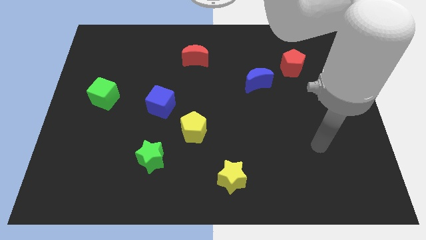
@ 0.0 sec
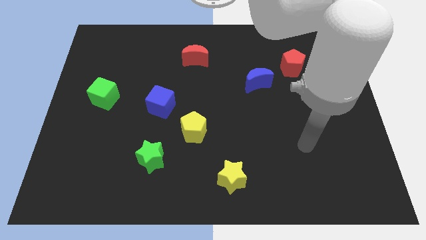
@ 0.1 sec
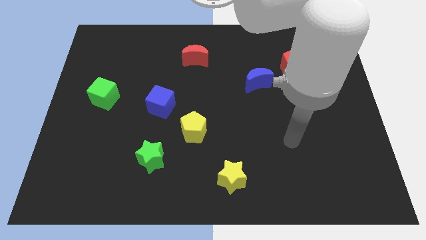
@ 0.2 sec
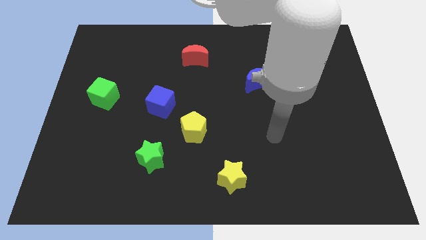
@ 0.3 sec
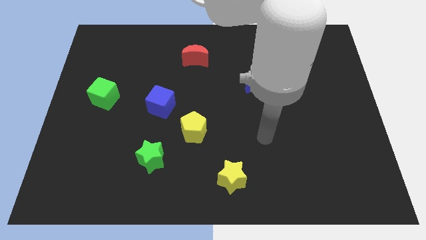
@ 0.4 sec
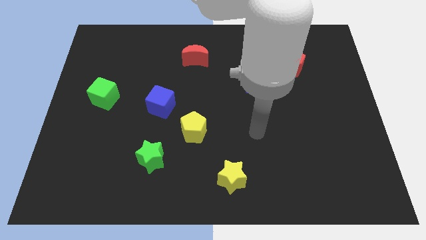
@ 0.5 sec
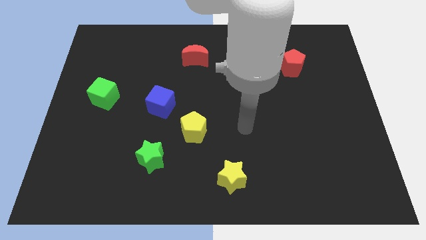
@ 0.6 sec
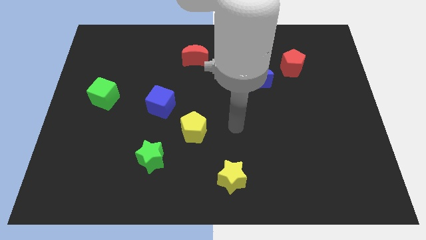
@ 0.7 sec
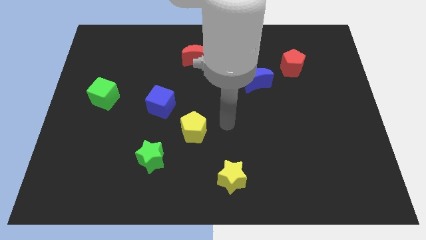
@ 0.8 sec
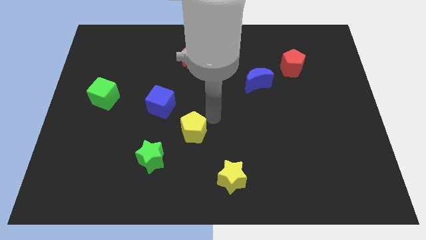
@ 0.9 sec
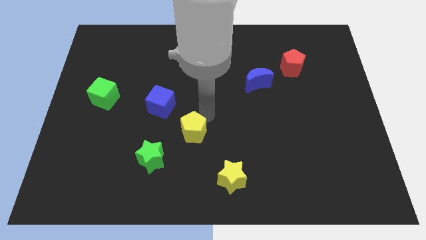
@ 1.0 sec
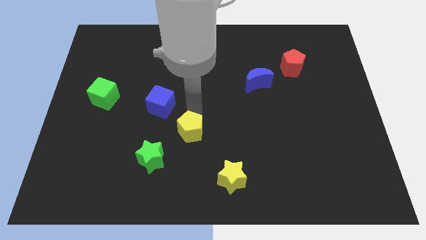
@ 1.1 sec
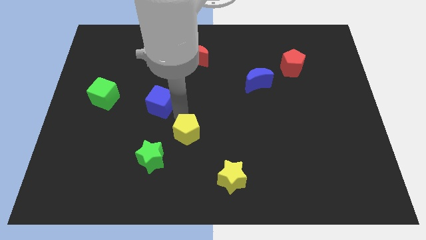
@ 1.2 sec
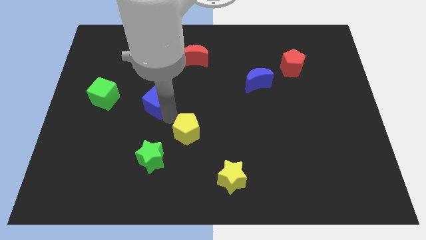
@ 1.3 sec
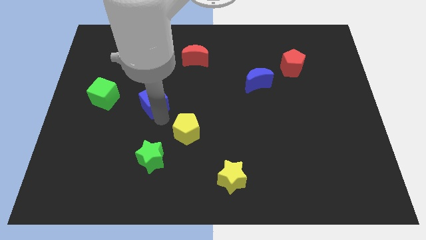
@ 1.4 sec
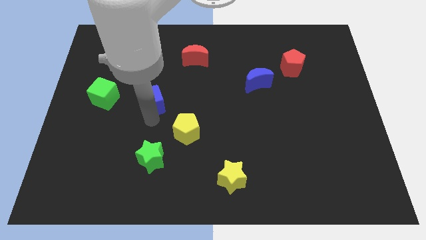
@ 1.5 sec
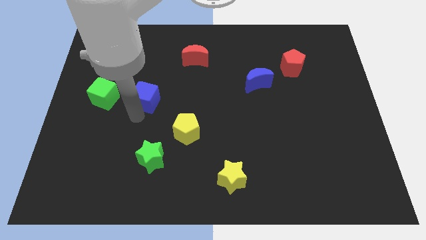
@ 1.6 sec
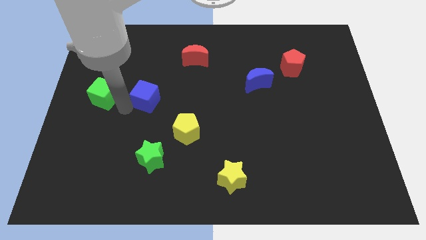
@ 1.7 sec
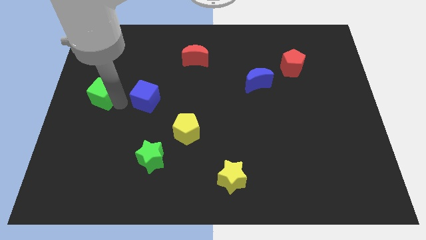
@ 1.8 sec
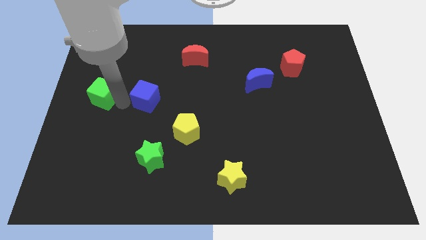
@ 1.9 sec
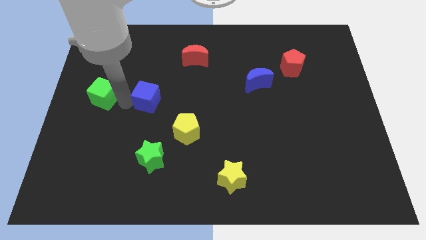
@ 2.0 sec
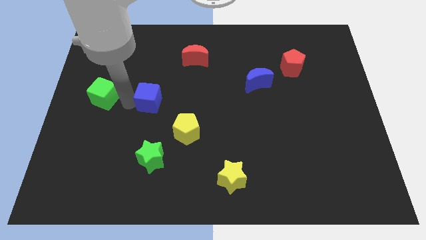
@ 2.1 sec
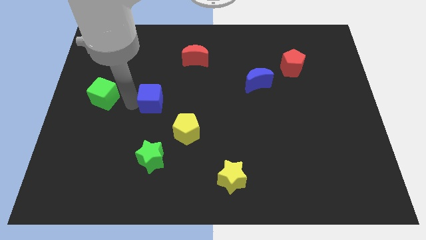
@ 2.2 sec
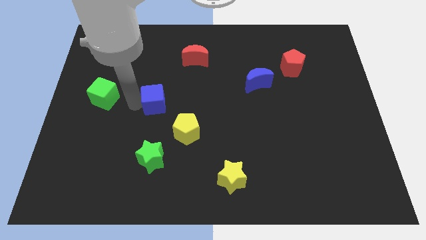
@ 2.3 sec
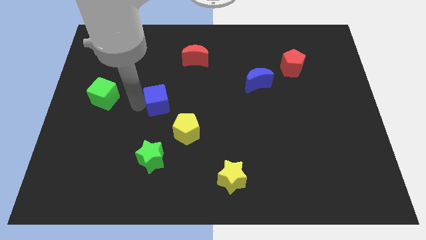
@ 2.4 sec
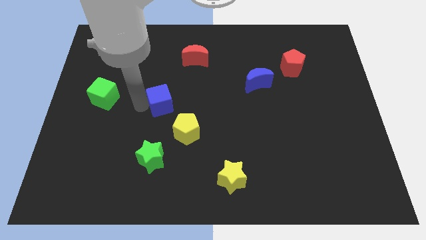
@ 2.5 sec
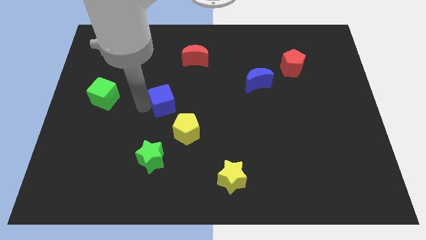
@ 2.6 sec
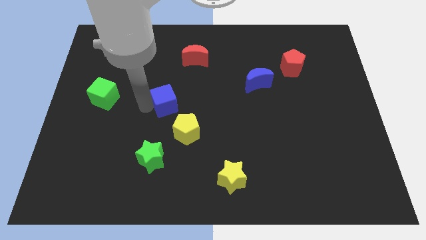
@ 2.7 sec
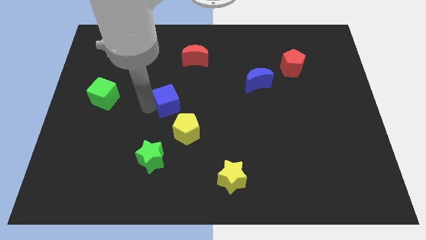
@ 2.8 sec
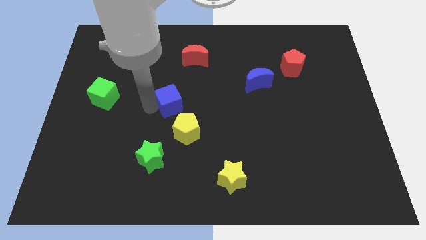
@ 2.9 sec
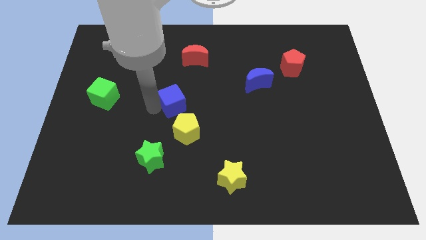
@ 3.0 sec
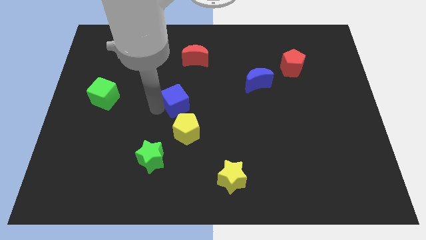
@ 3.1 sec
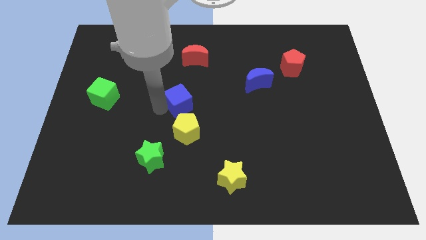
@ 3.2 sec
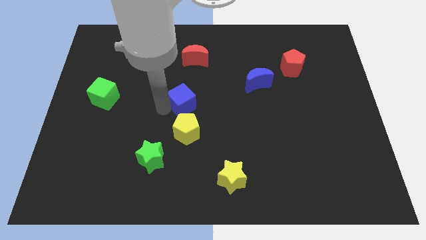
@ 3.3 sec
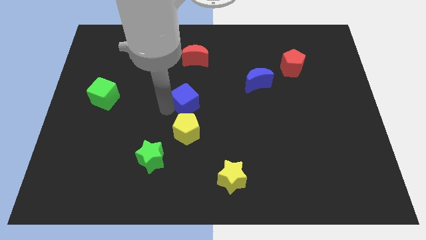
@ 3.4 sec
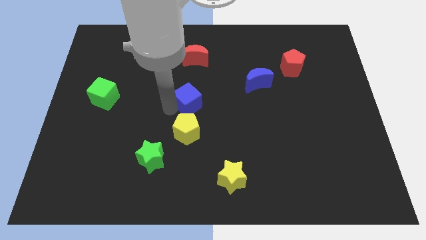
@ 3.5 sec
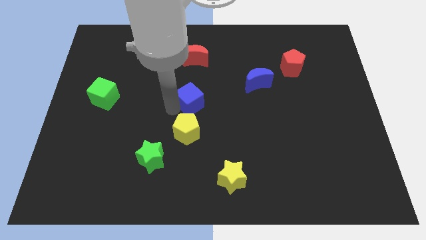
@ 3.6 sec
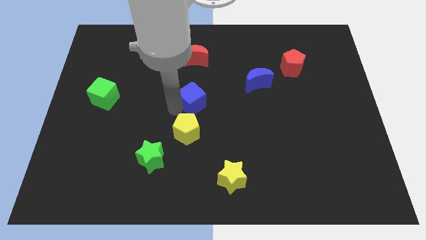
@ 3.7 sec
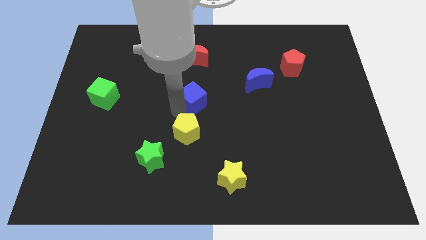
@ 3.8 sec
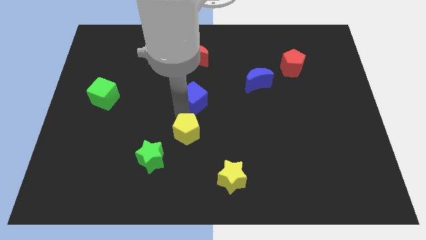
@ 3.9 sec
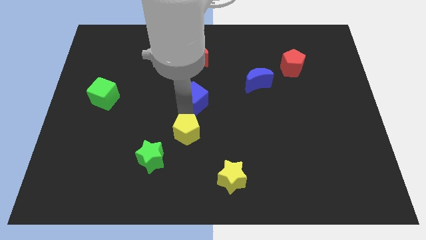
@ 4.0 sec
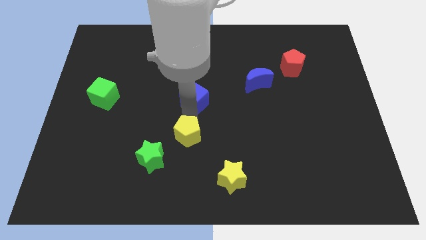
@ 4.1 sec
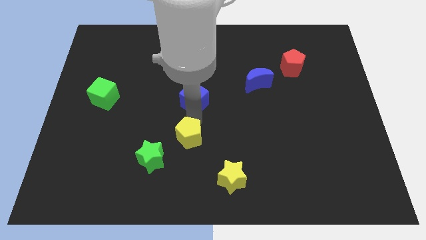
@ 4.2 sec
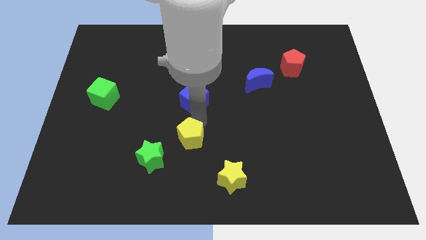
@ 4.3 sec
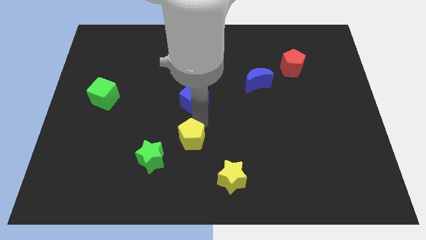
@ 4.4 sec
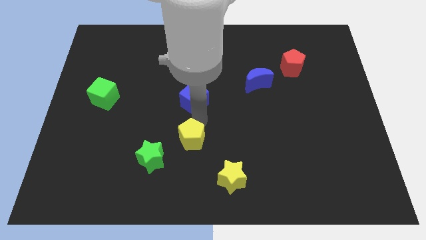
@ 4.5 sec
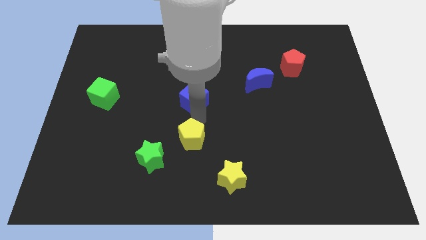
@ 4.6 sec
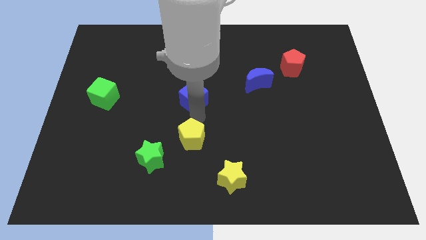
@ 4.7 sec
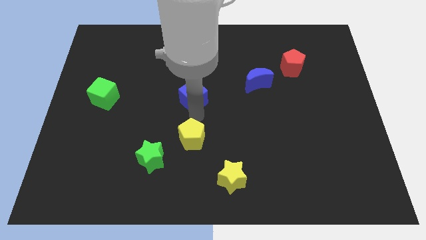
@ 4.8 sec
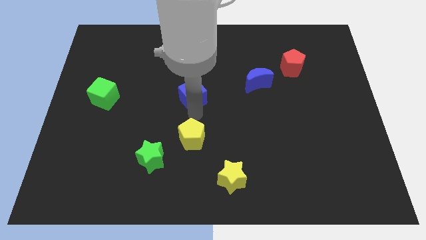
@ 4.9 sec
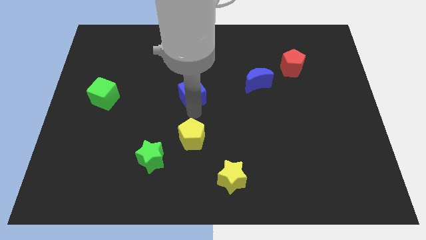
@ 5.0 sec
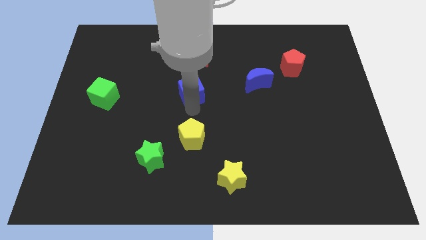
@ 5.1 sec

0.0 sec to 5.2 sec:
push the blue cube a bit upwards and right diagonally

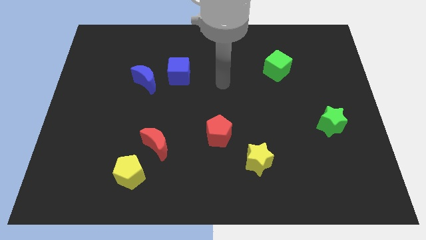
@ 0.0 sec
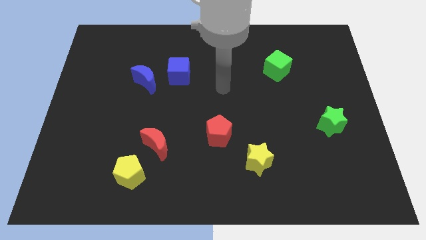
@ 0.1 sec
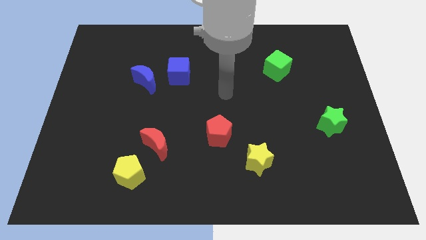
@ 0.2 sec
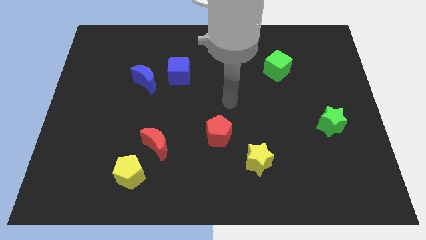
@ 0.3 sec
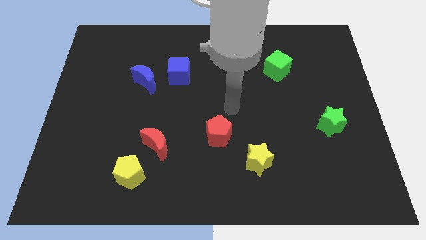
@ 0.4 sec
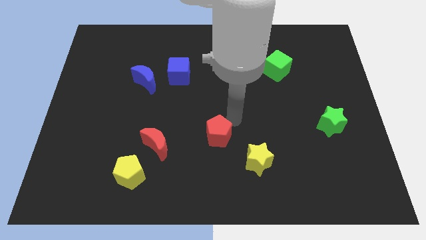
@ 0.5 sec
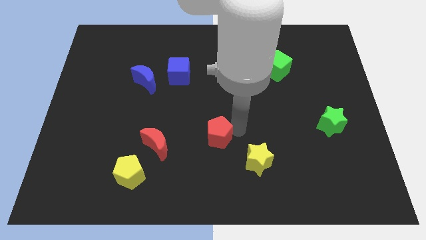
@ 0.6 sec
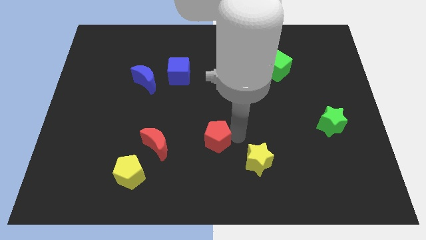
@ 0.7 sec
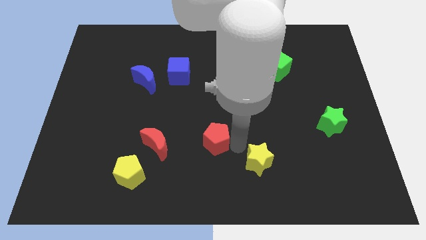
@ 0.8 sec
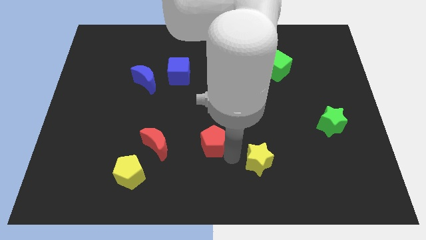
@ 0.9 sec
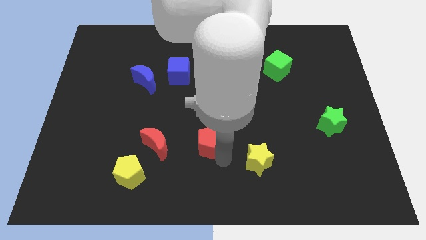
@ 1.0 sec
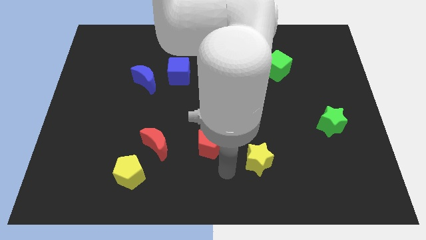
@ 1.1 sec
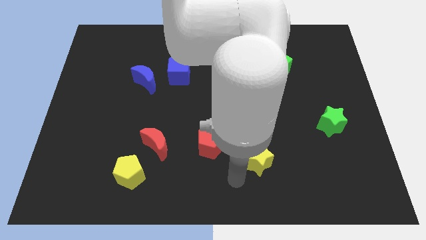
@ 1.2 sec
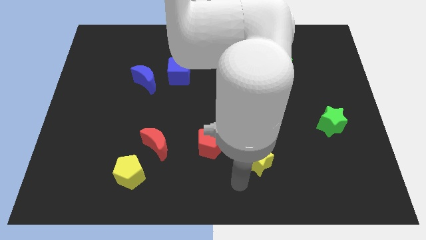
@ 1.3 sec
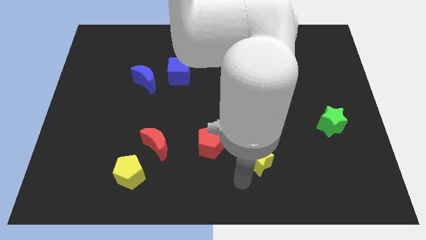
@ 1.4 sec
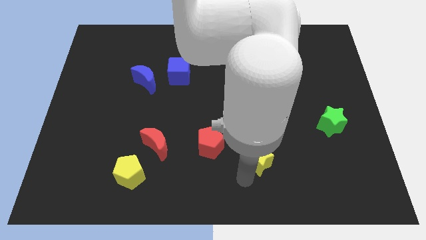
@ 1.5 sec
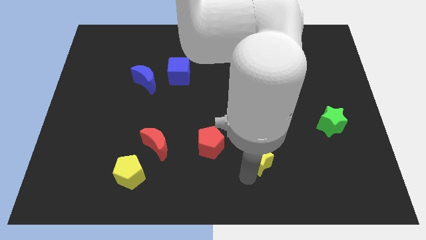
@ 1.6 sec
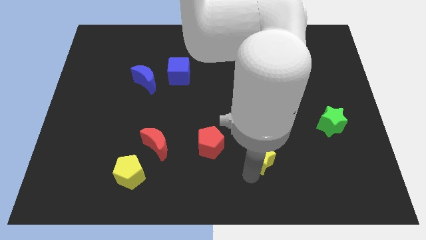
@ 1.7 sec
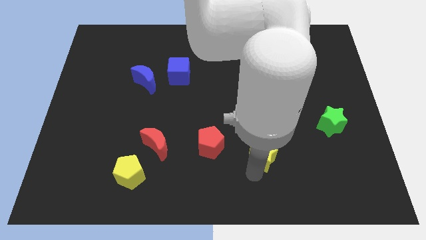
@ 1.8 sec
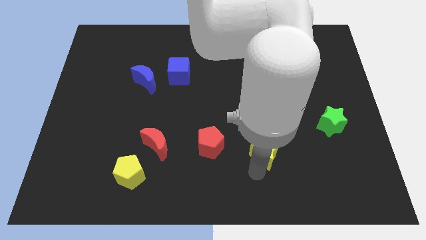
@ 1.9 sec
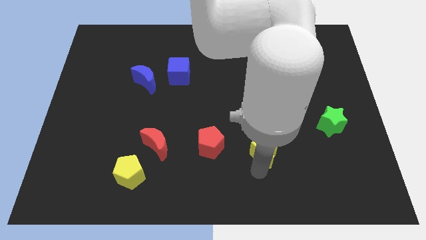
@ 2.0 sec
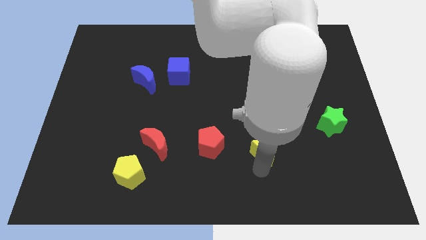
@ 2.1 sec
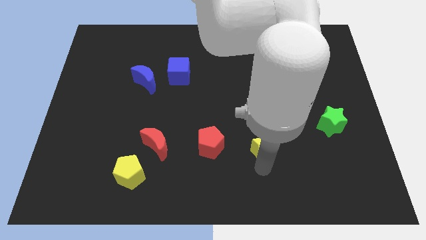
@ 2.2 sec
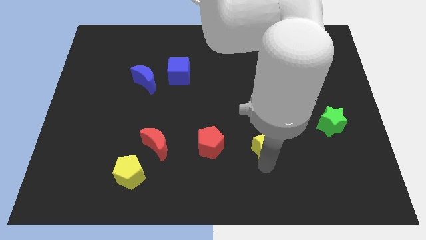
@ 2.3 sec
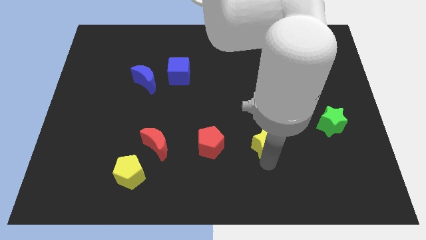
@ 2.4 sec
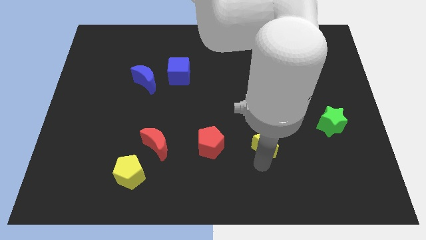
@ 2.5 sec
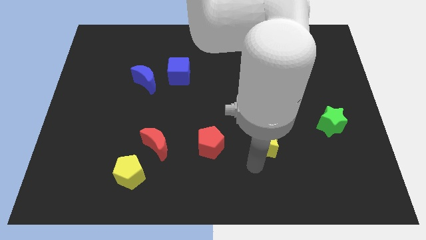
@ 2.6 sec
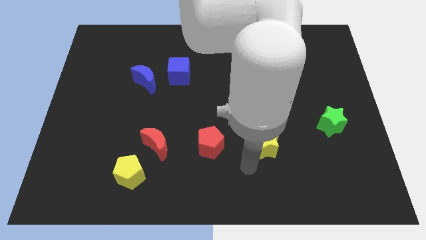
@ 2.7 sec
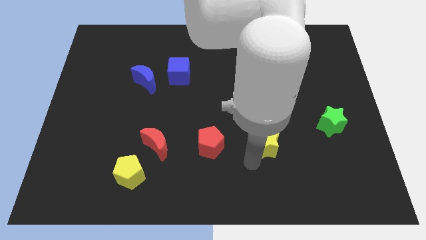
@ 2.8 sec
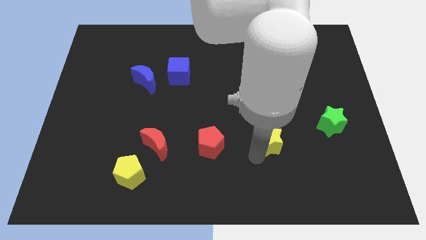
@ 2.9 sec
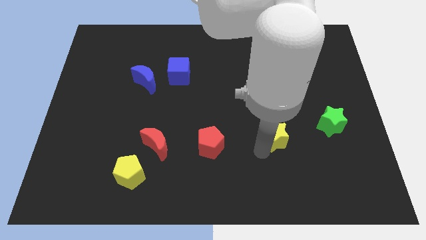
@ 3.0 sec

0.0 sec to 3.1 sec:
slightly slide the yellow star upwards and right
